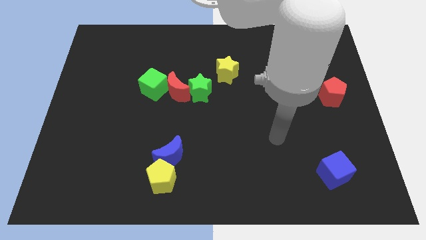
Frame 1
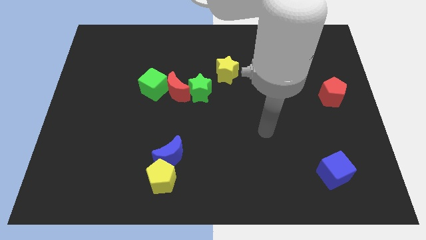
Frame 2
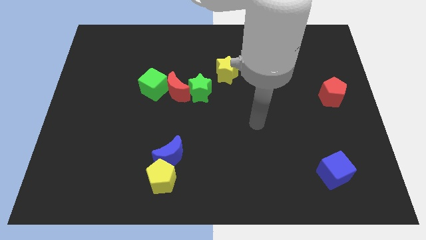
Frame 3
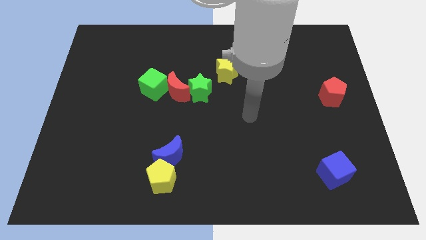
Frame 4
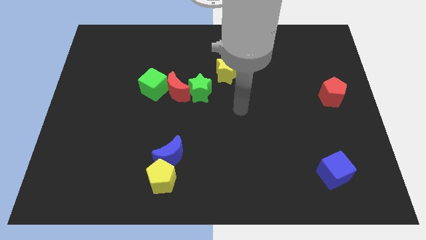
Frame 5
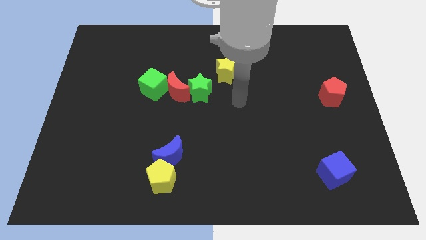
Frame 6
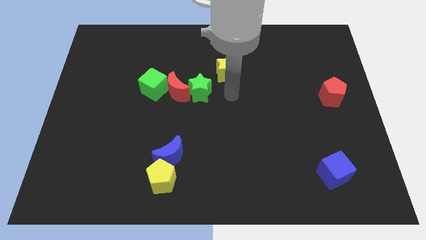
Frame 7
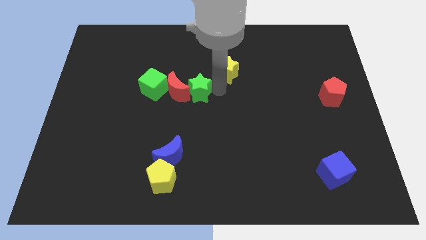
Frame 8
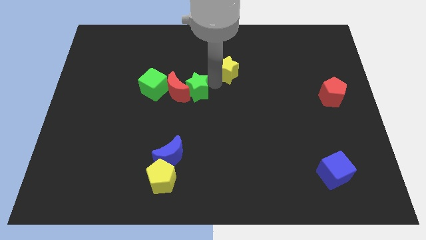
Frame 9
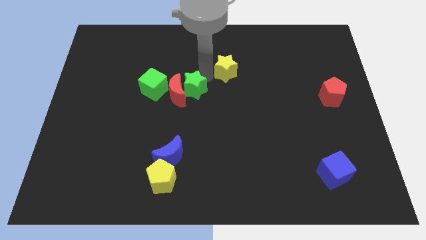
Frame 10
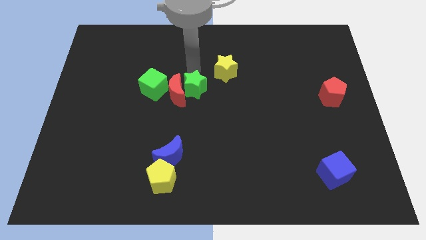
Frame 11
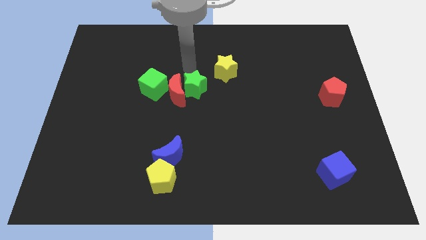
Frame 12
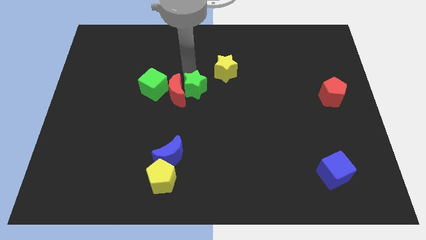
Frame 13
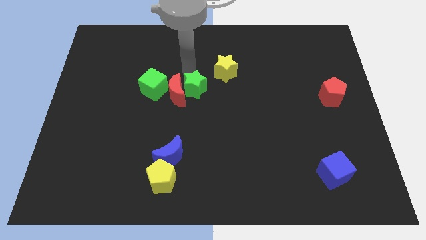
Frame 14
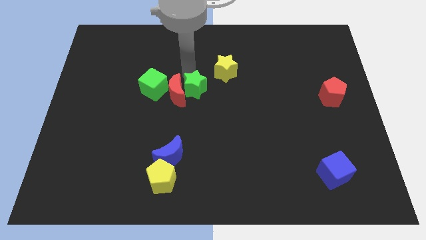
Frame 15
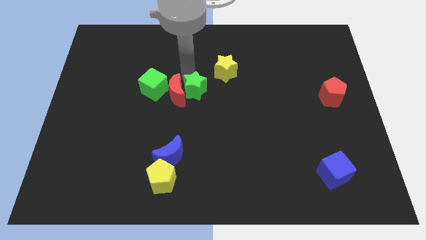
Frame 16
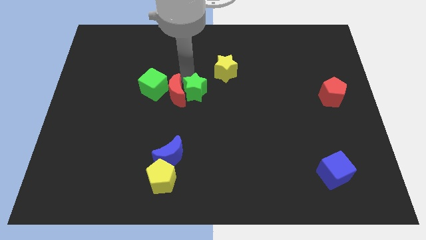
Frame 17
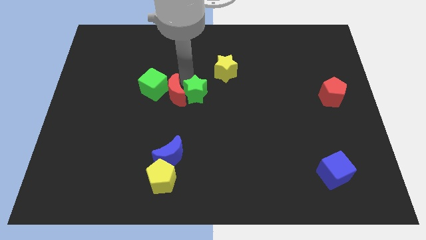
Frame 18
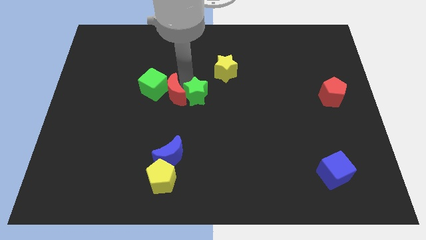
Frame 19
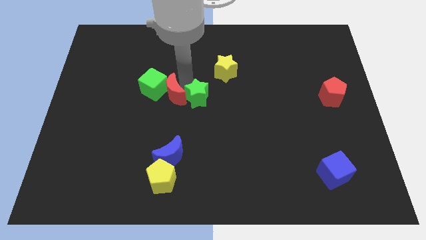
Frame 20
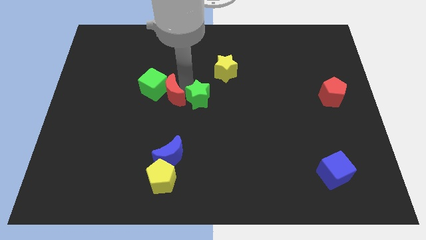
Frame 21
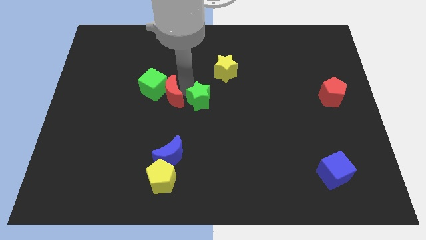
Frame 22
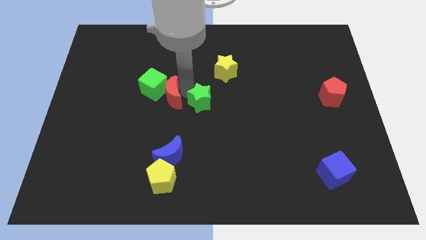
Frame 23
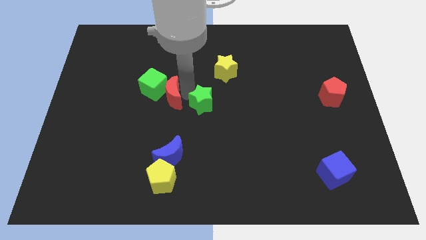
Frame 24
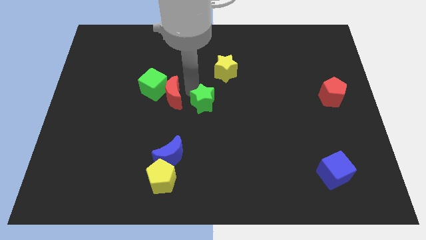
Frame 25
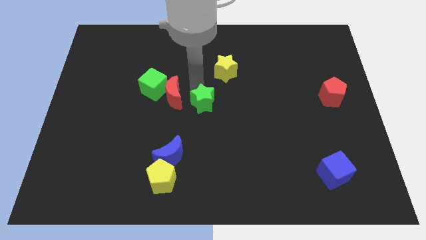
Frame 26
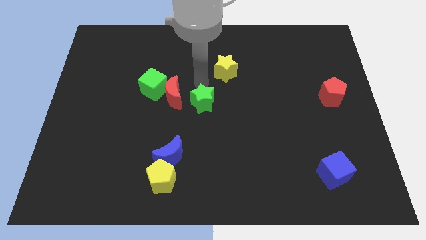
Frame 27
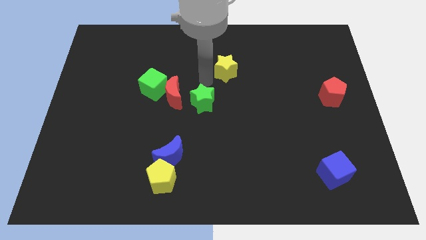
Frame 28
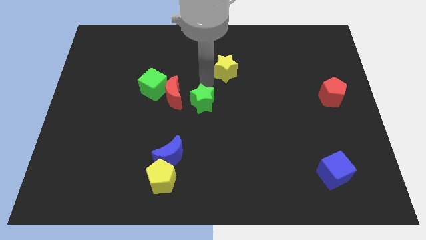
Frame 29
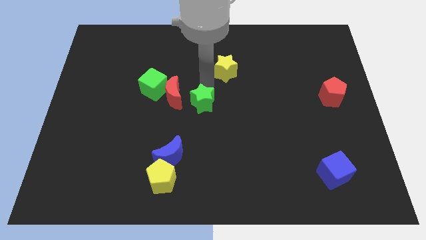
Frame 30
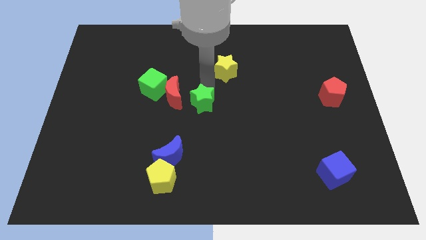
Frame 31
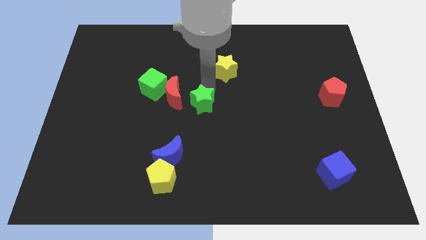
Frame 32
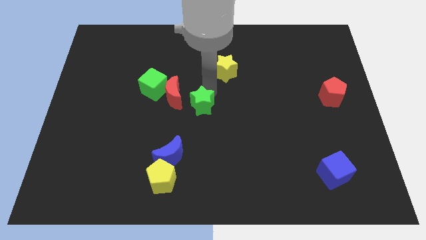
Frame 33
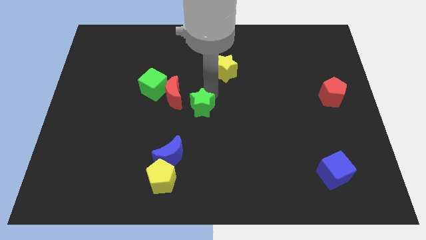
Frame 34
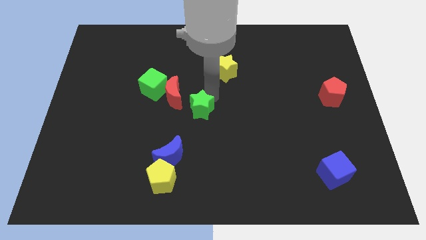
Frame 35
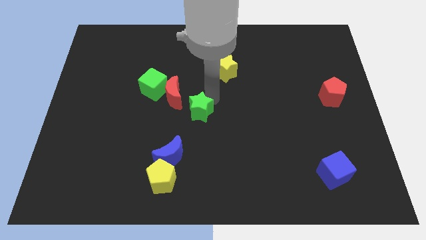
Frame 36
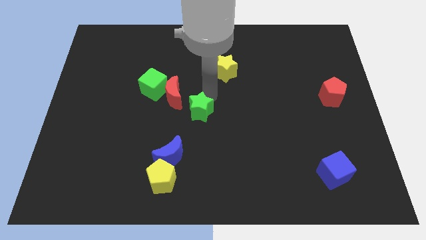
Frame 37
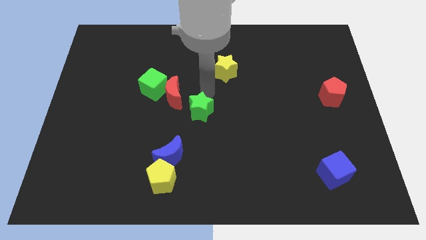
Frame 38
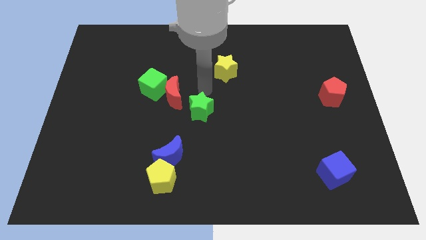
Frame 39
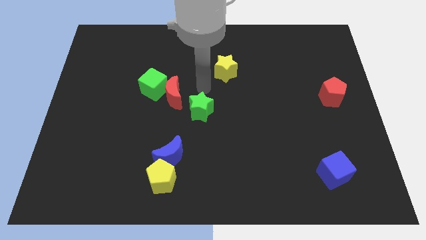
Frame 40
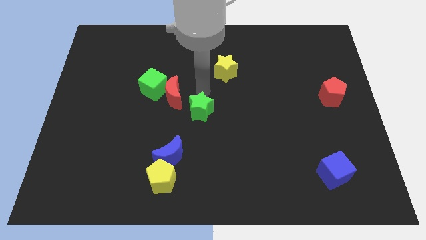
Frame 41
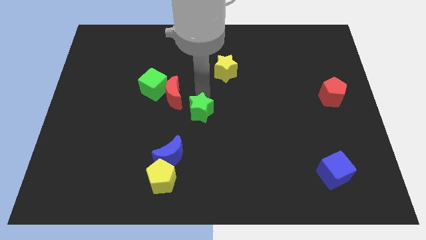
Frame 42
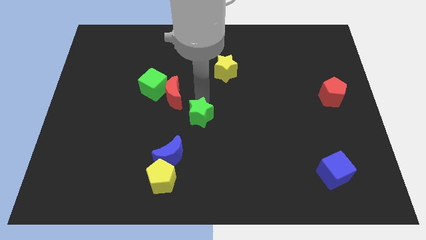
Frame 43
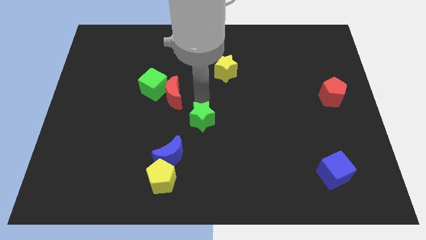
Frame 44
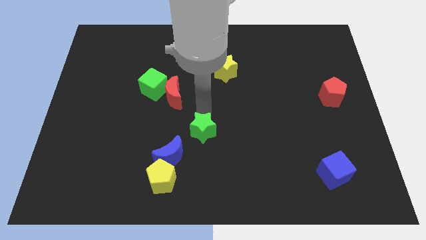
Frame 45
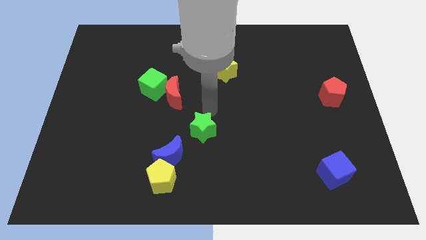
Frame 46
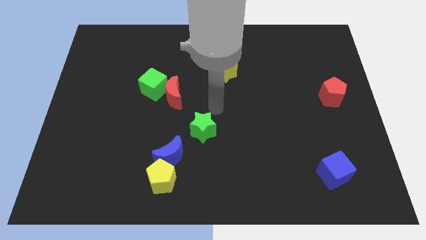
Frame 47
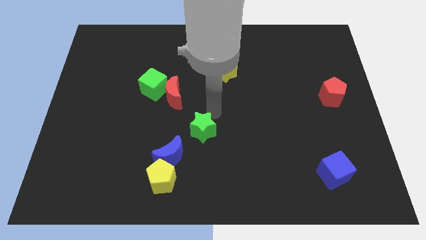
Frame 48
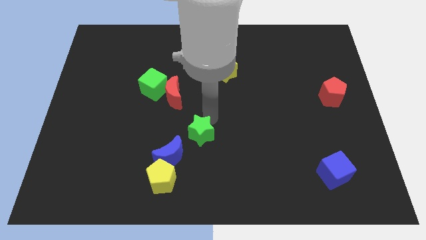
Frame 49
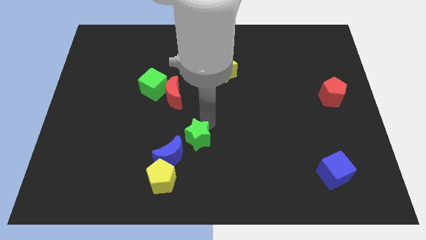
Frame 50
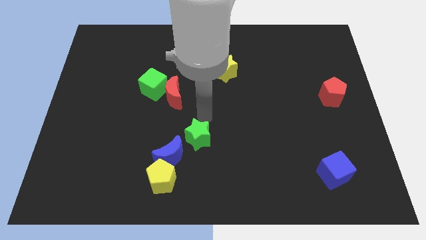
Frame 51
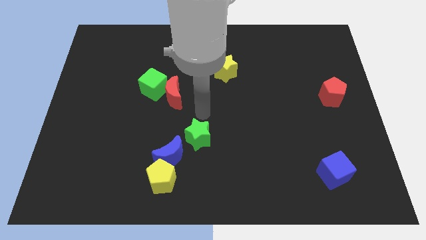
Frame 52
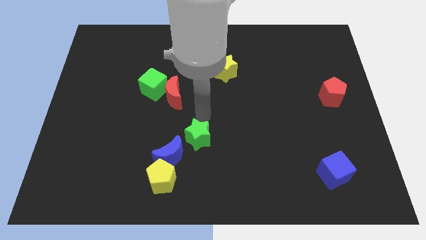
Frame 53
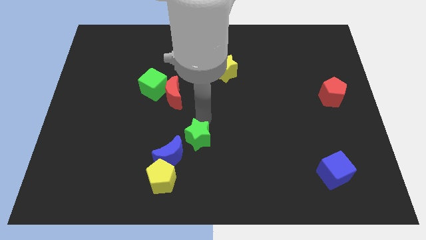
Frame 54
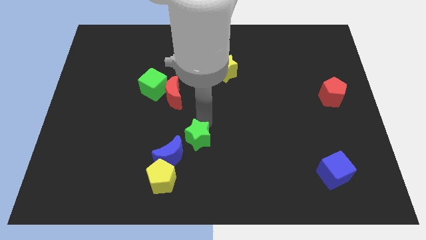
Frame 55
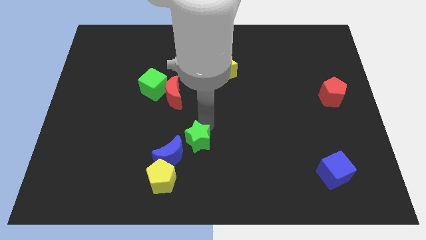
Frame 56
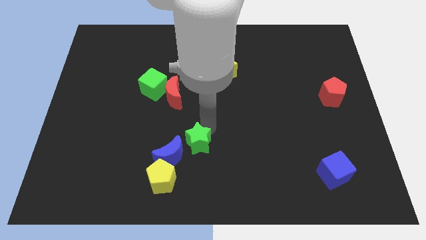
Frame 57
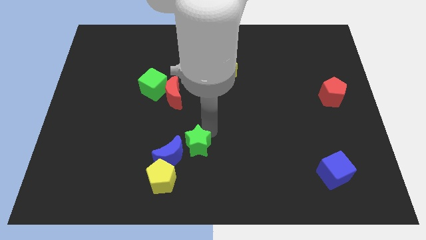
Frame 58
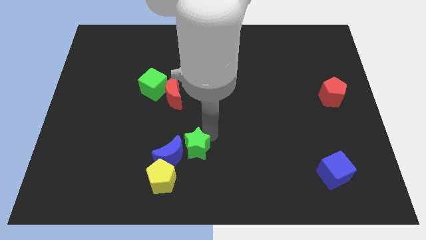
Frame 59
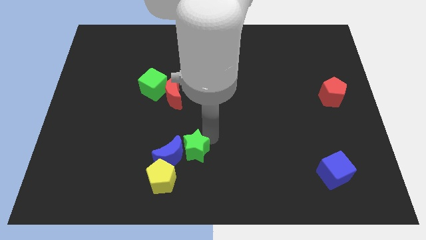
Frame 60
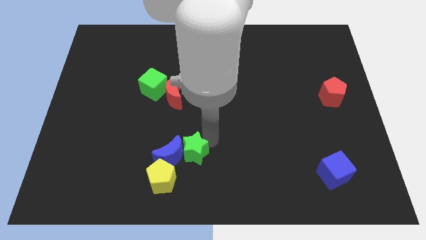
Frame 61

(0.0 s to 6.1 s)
move the green star to the bottom right of the blue moon

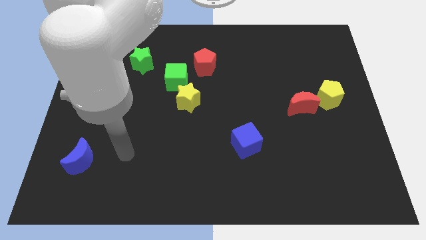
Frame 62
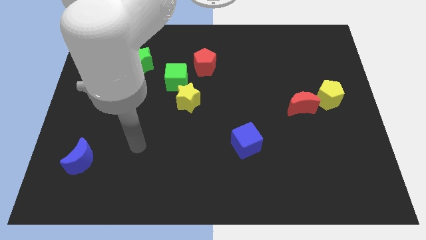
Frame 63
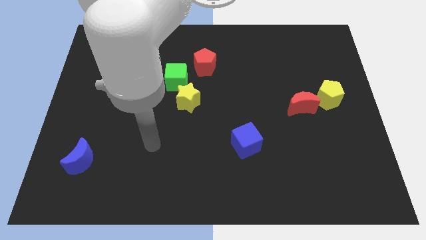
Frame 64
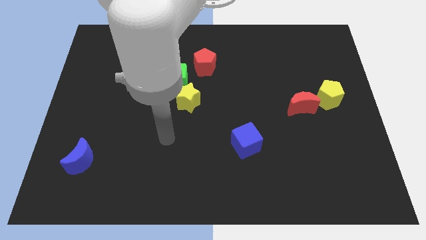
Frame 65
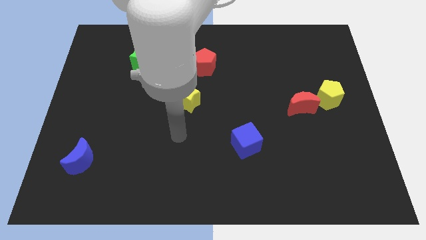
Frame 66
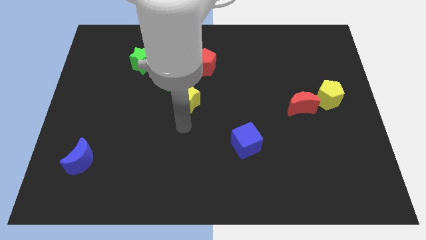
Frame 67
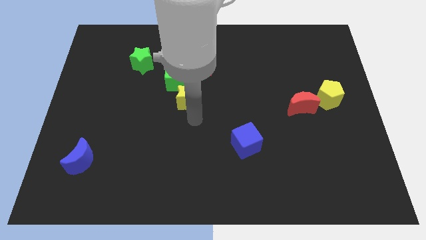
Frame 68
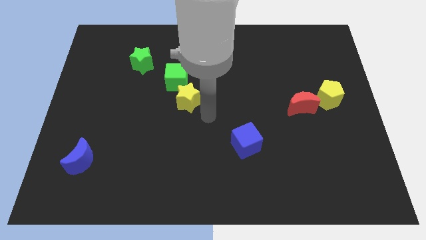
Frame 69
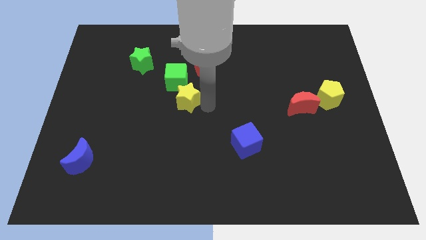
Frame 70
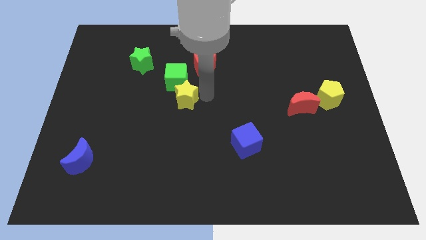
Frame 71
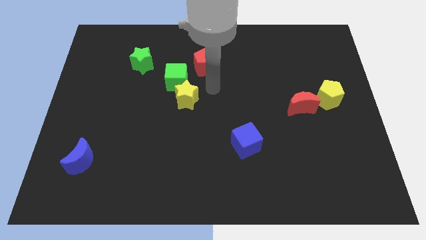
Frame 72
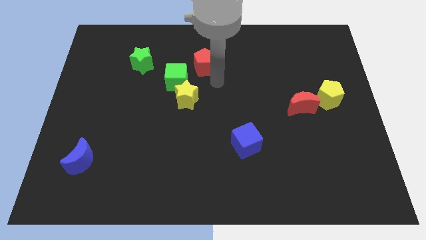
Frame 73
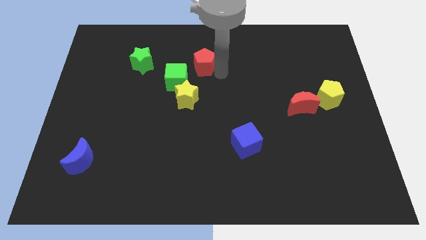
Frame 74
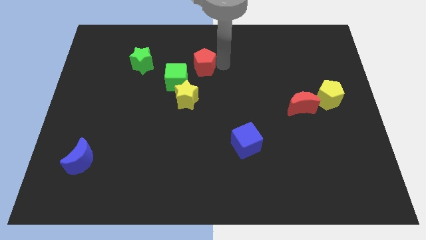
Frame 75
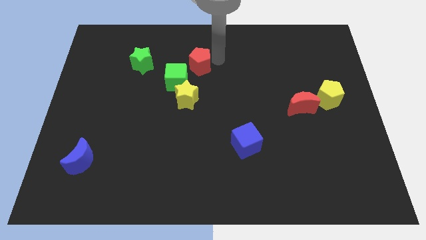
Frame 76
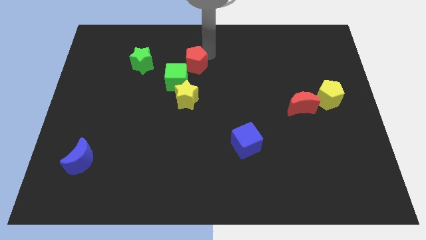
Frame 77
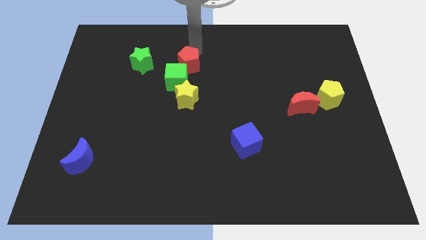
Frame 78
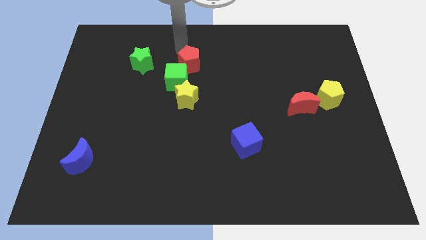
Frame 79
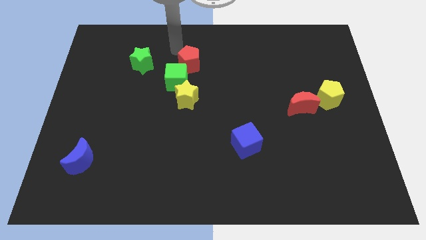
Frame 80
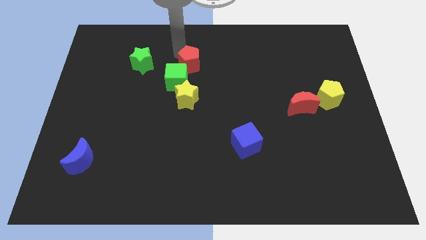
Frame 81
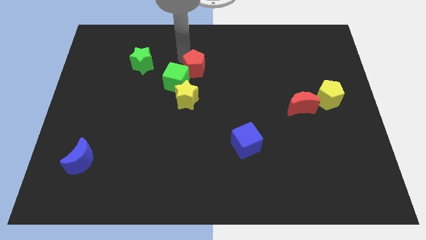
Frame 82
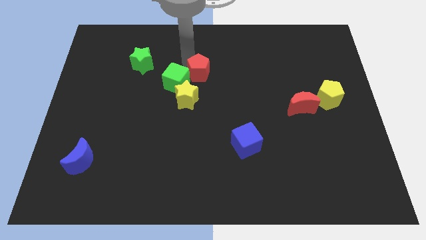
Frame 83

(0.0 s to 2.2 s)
push the red pentagon to the top right of the yellow star

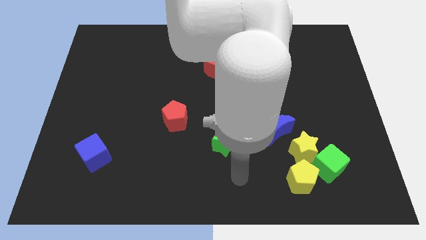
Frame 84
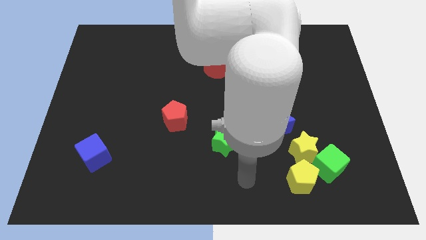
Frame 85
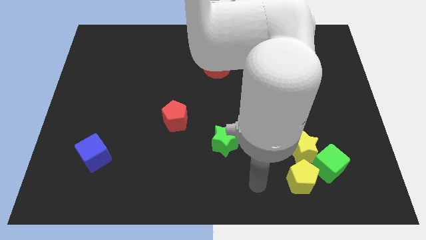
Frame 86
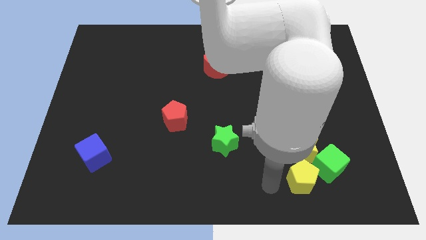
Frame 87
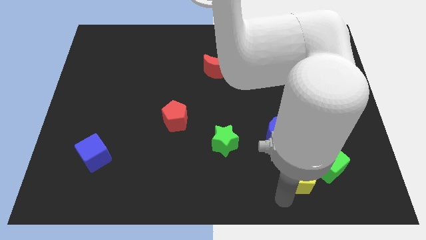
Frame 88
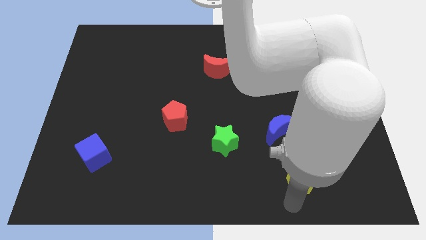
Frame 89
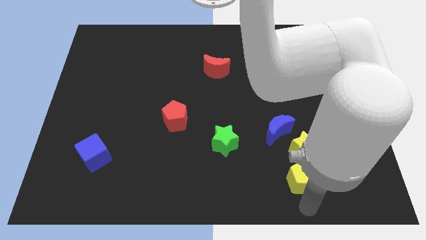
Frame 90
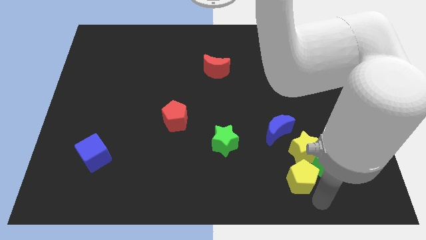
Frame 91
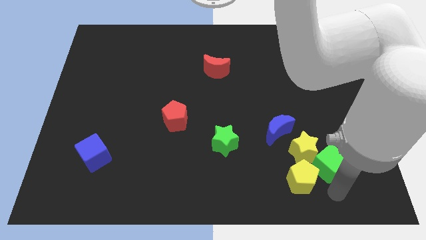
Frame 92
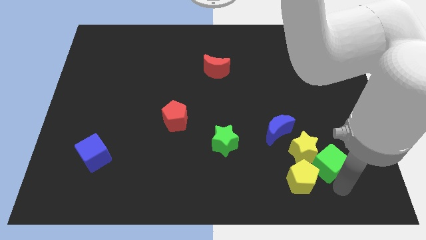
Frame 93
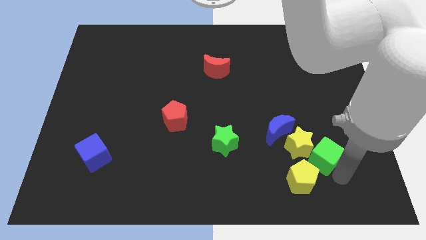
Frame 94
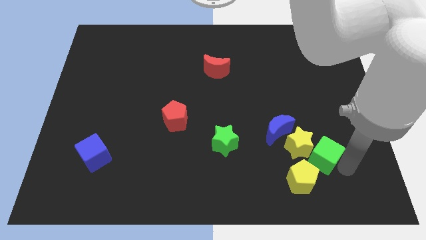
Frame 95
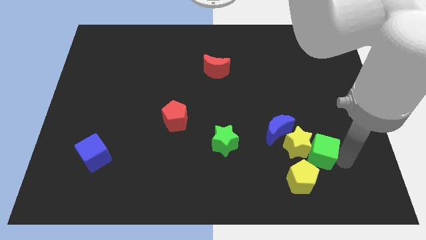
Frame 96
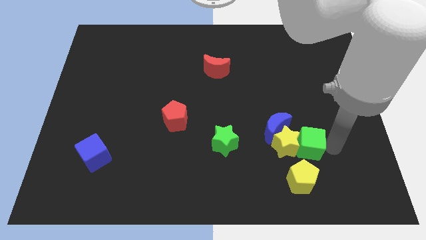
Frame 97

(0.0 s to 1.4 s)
put the yellow star diagonally down and to the left of the blue moon
